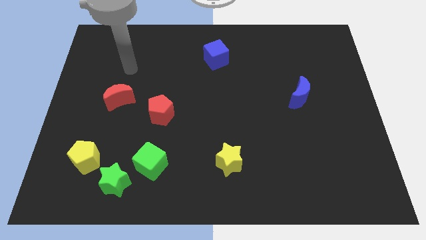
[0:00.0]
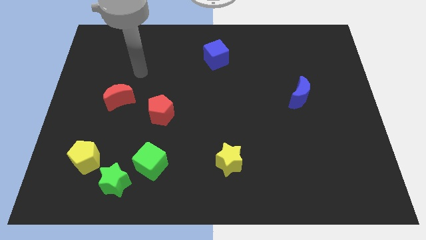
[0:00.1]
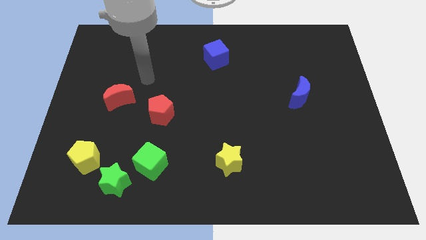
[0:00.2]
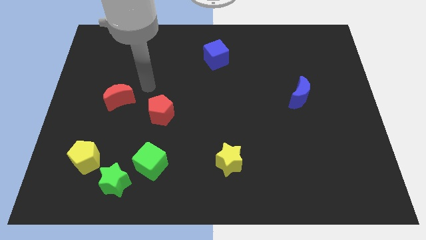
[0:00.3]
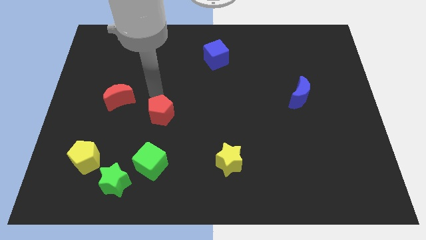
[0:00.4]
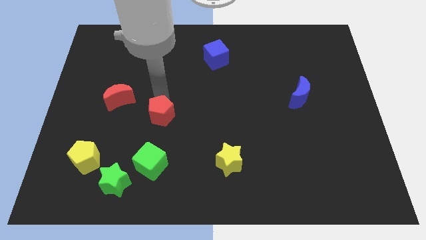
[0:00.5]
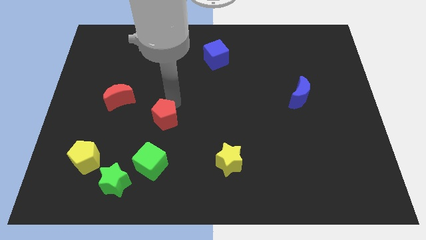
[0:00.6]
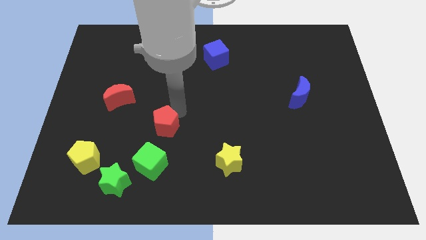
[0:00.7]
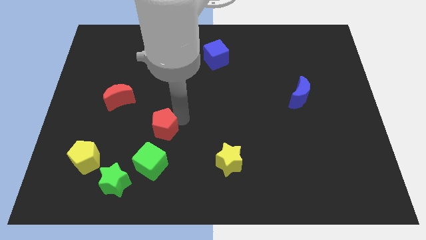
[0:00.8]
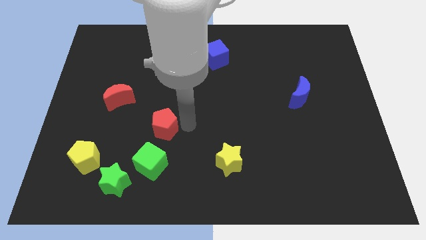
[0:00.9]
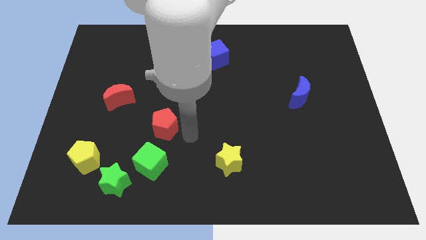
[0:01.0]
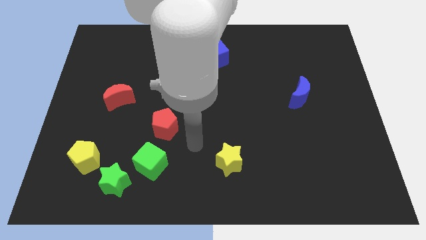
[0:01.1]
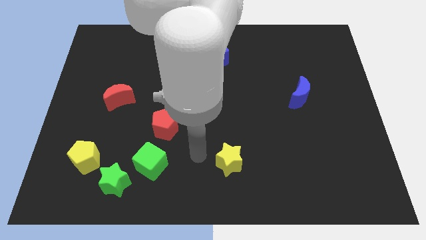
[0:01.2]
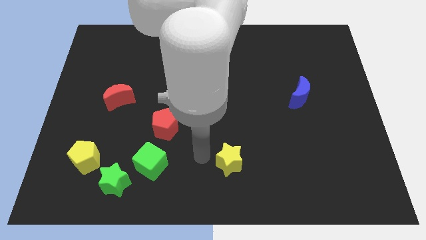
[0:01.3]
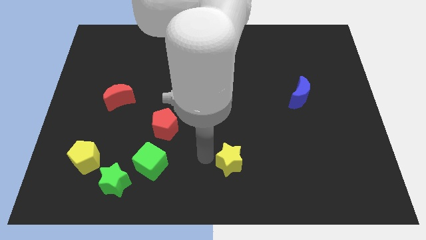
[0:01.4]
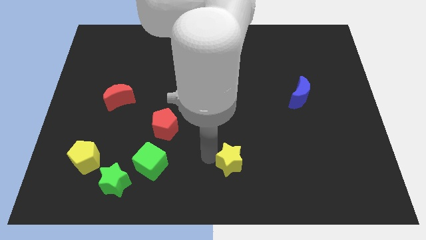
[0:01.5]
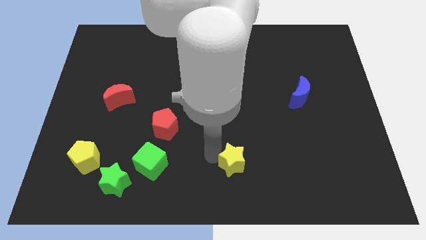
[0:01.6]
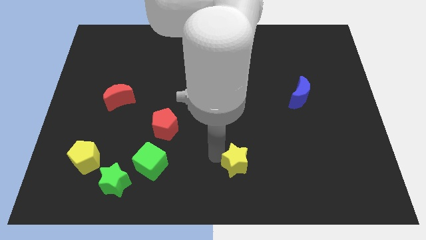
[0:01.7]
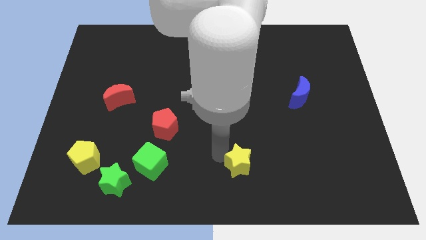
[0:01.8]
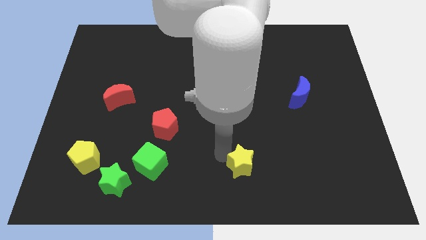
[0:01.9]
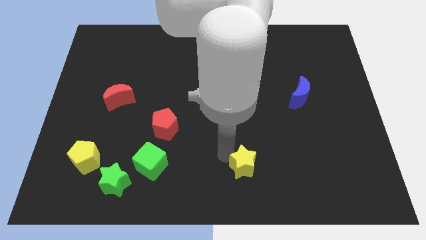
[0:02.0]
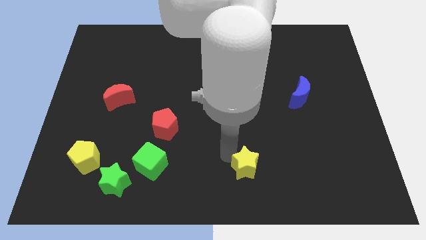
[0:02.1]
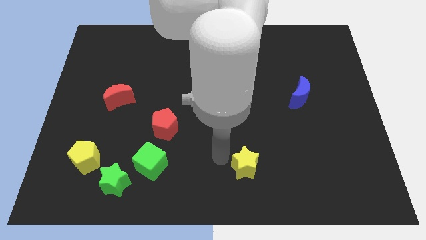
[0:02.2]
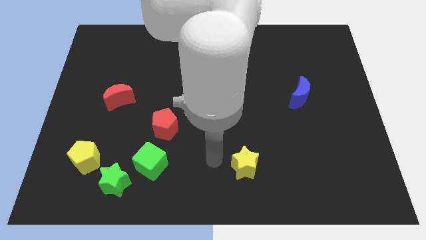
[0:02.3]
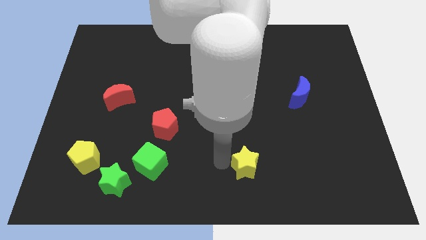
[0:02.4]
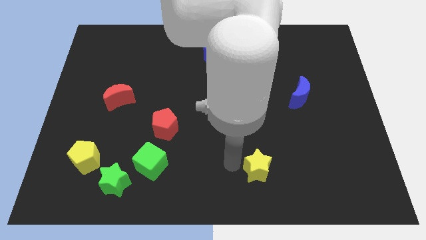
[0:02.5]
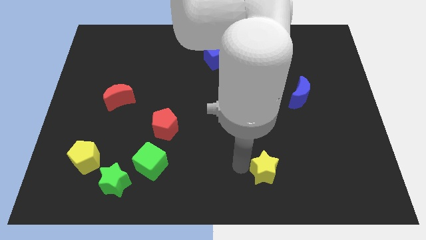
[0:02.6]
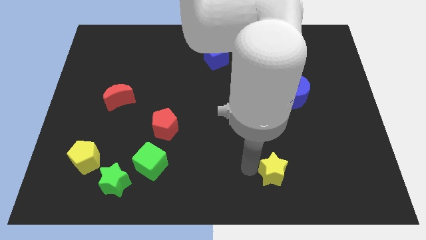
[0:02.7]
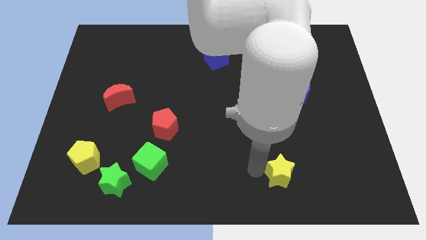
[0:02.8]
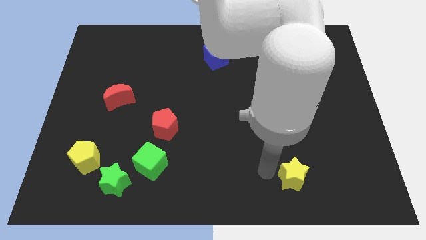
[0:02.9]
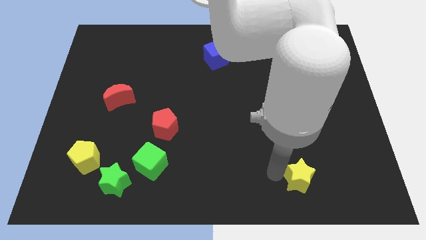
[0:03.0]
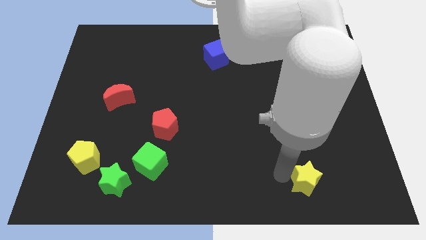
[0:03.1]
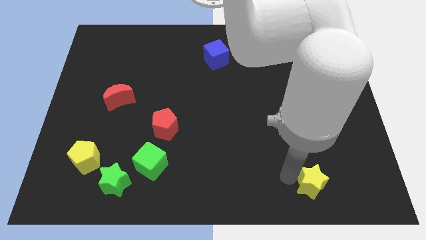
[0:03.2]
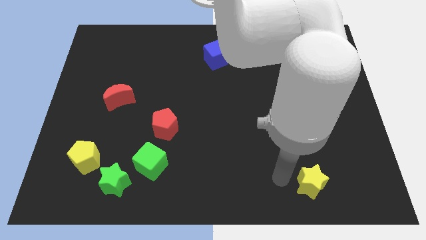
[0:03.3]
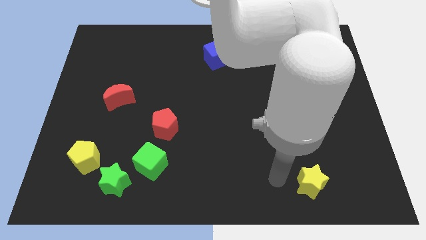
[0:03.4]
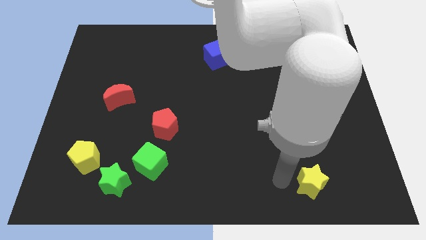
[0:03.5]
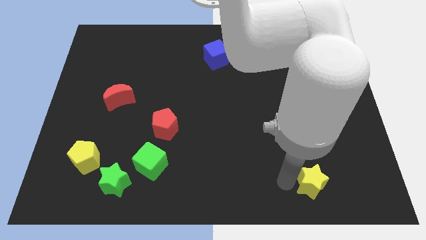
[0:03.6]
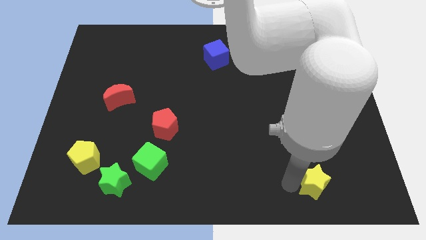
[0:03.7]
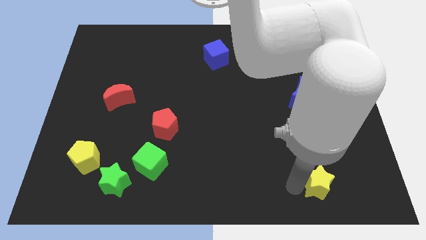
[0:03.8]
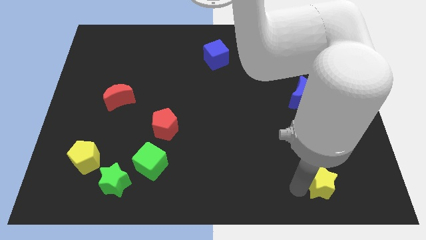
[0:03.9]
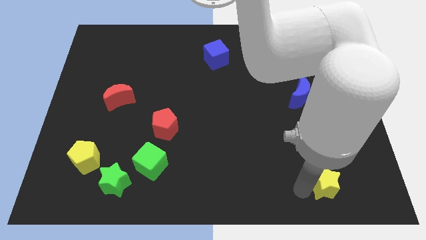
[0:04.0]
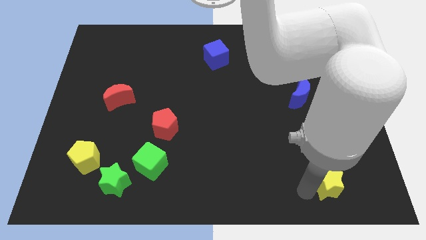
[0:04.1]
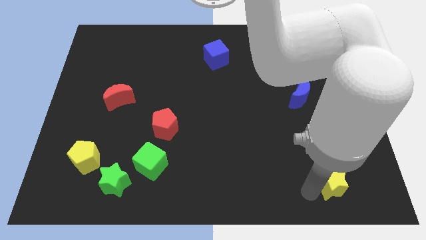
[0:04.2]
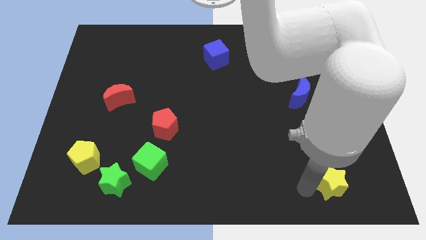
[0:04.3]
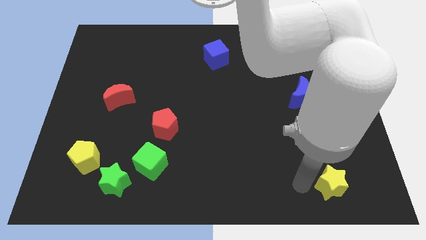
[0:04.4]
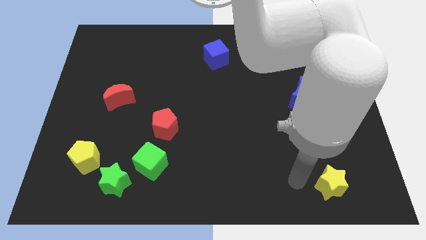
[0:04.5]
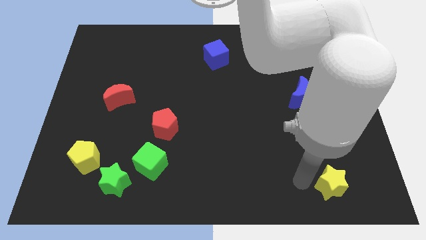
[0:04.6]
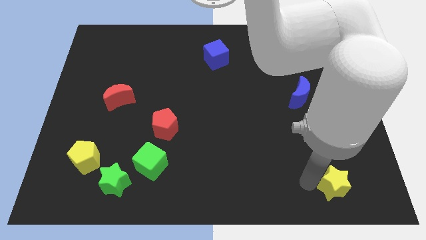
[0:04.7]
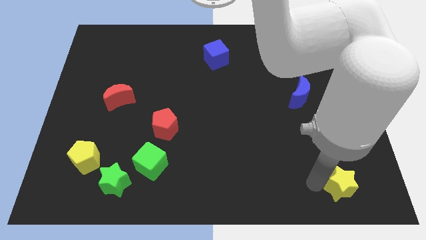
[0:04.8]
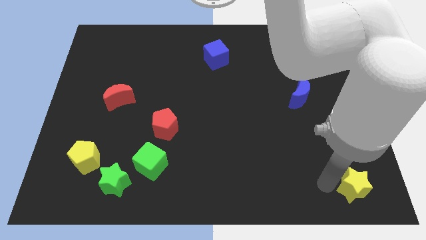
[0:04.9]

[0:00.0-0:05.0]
slide the yellow star to the bottom right of the board
